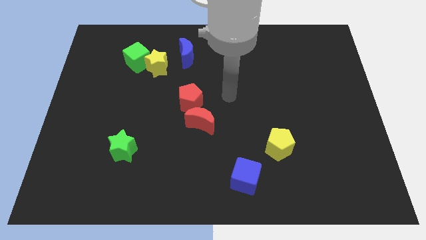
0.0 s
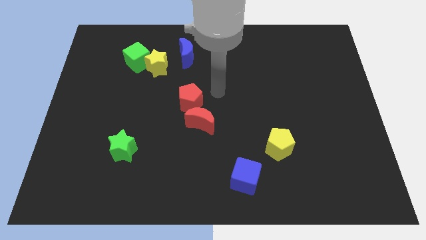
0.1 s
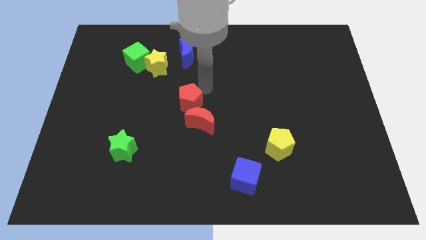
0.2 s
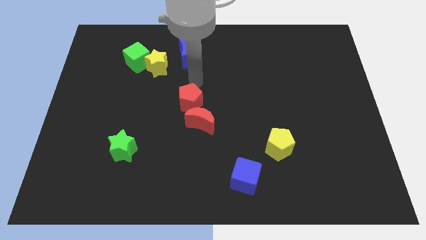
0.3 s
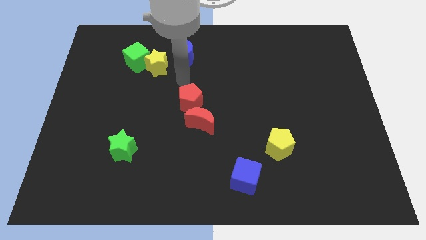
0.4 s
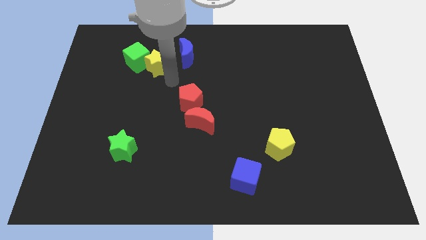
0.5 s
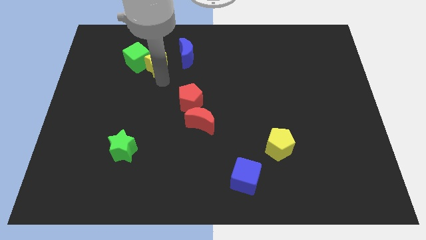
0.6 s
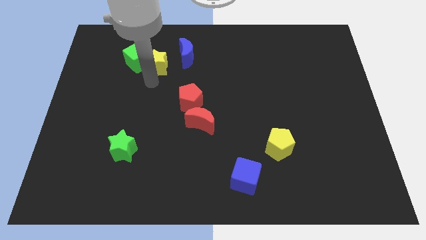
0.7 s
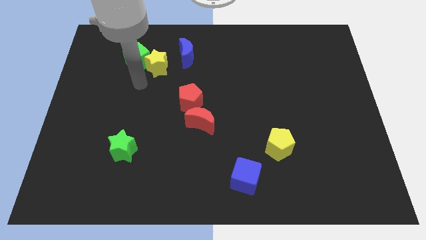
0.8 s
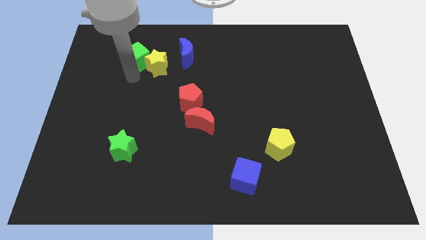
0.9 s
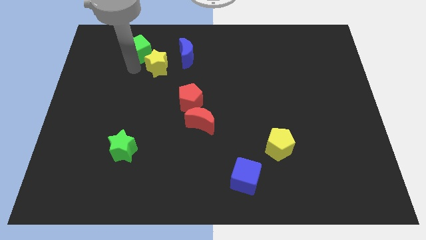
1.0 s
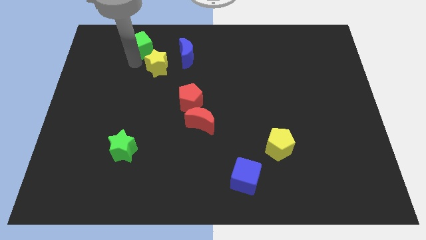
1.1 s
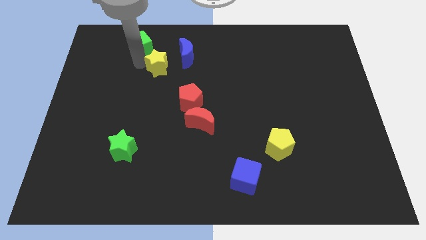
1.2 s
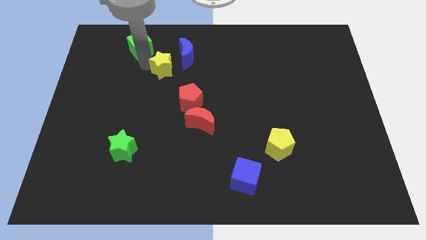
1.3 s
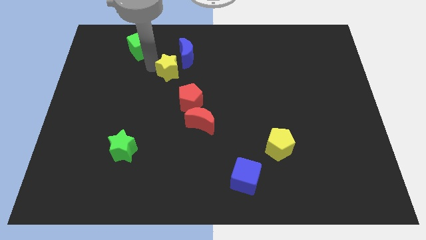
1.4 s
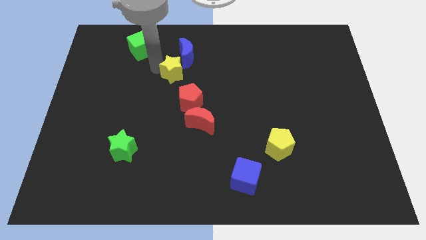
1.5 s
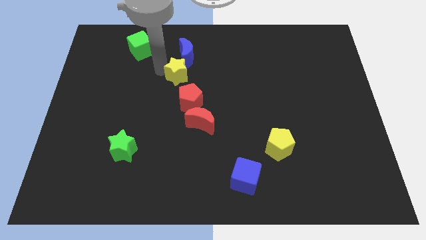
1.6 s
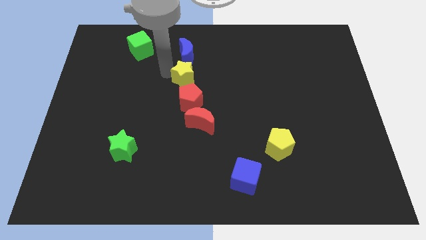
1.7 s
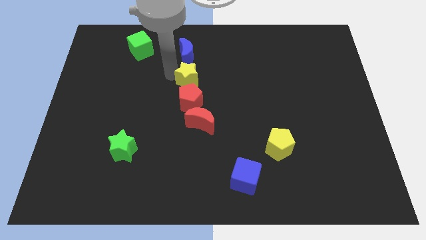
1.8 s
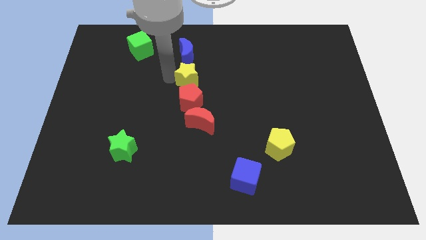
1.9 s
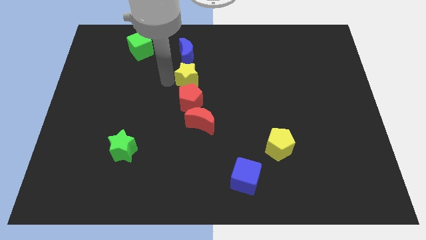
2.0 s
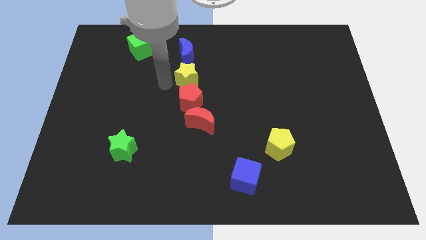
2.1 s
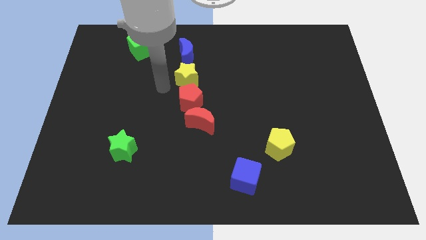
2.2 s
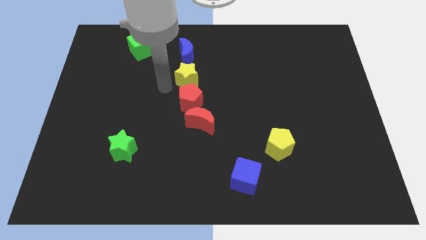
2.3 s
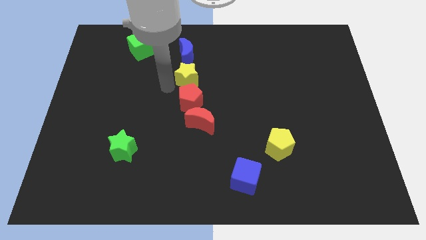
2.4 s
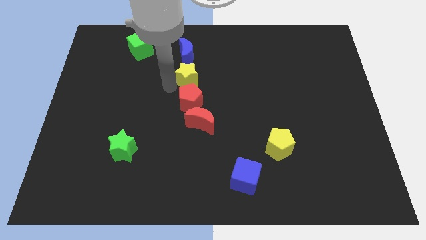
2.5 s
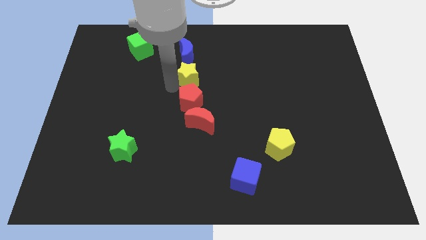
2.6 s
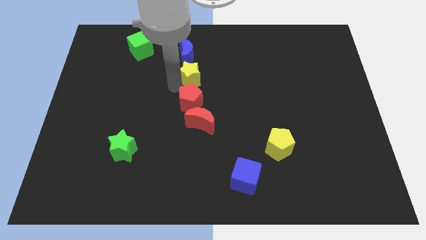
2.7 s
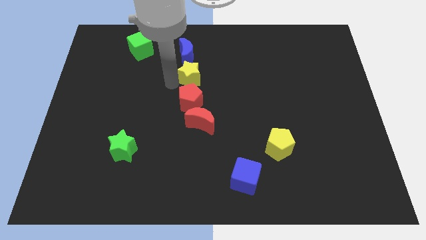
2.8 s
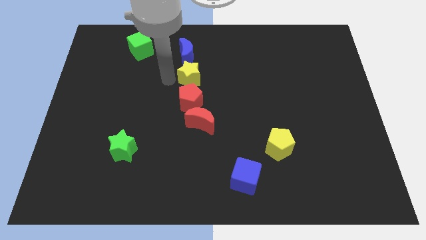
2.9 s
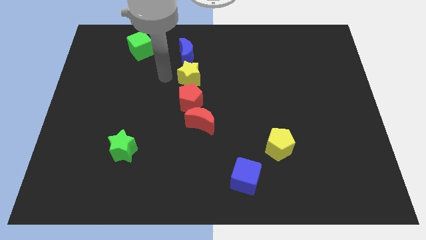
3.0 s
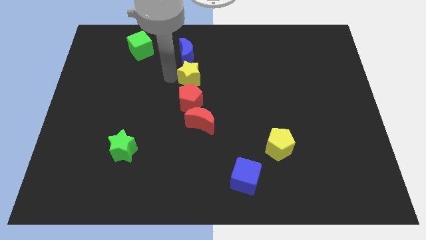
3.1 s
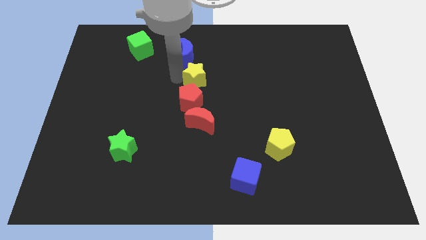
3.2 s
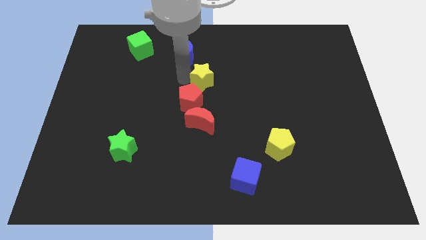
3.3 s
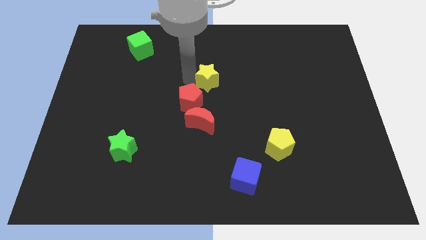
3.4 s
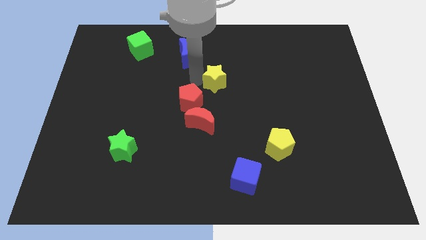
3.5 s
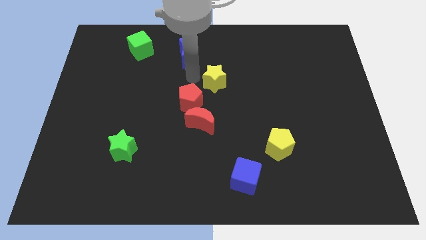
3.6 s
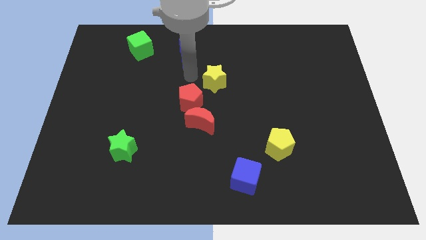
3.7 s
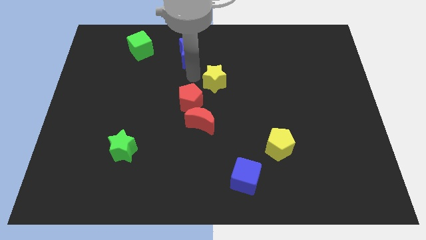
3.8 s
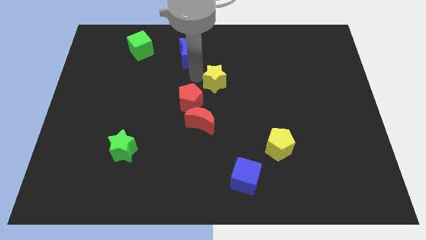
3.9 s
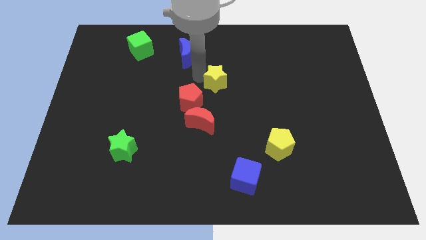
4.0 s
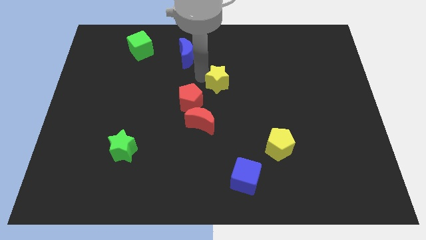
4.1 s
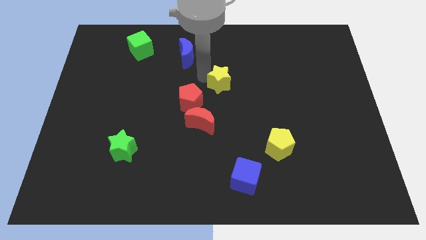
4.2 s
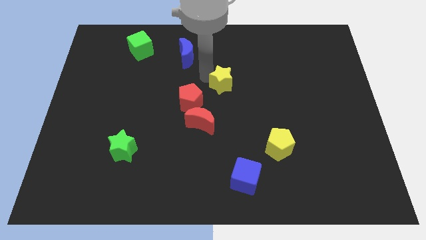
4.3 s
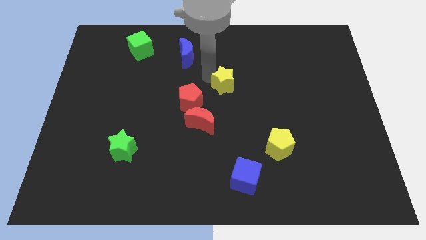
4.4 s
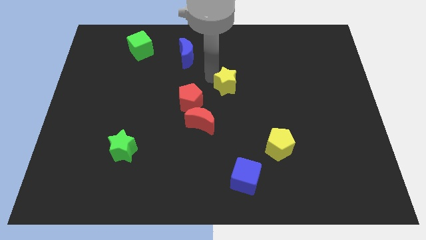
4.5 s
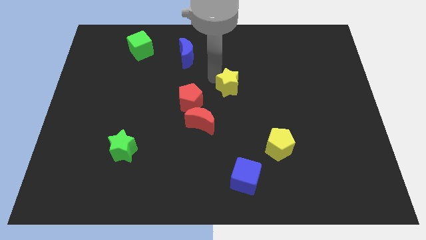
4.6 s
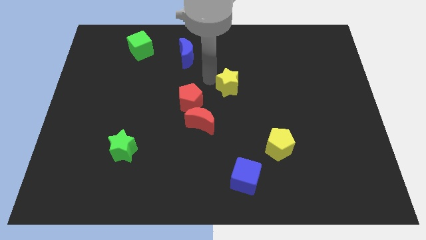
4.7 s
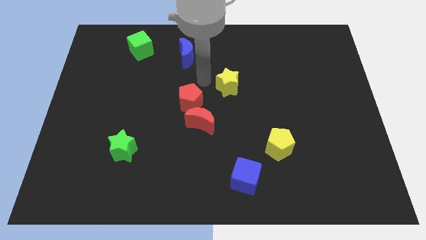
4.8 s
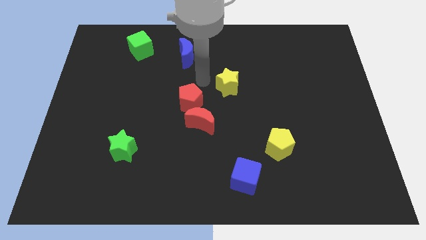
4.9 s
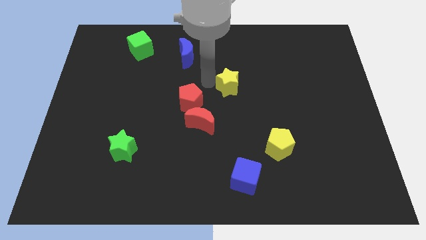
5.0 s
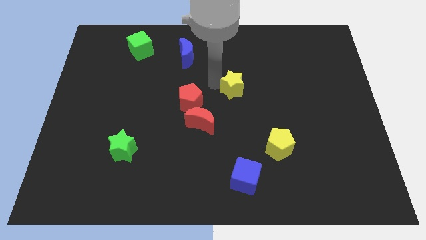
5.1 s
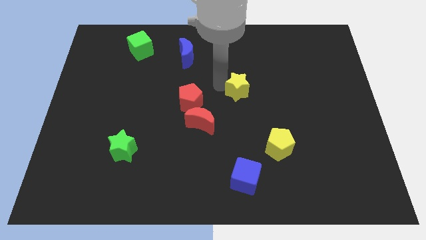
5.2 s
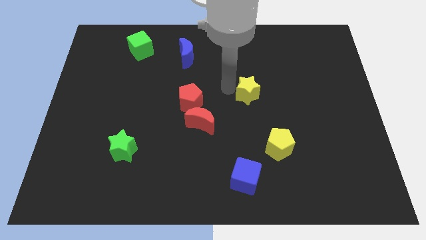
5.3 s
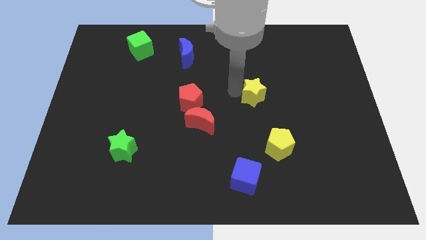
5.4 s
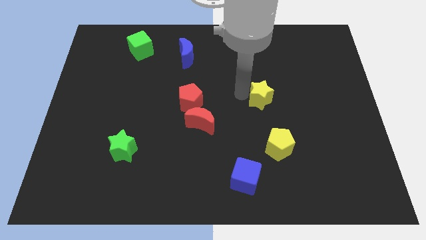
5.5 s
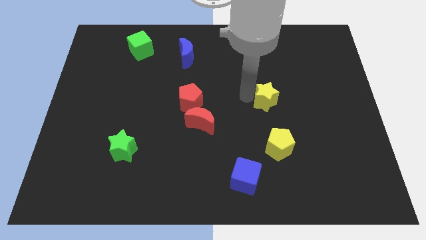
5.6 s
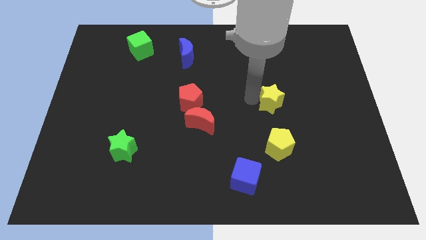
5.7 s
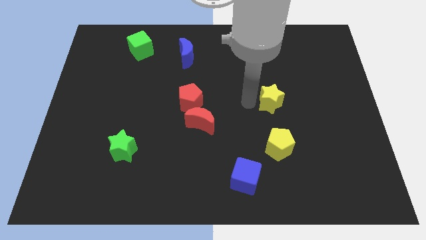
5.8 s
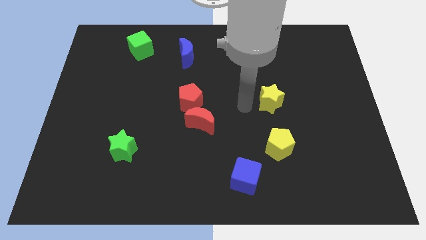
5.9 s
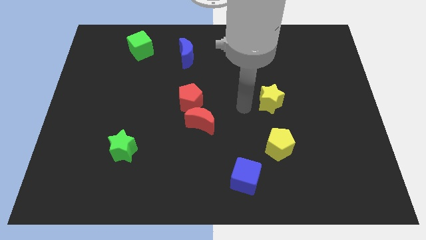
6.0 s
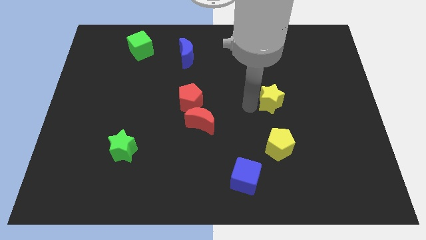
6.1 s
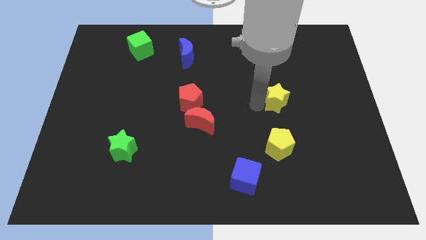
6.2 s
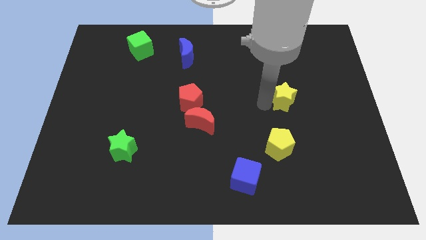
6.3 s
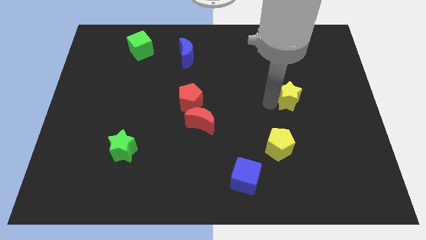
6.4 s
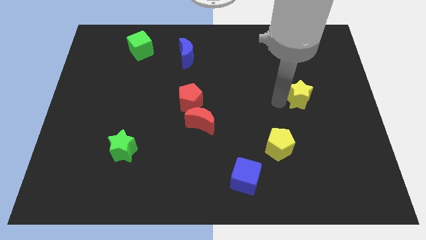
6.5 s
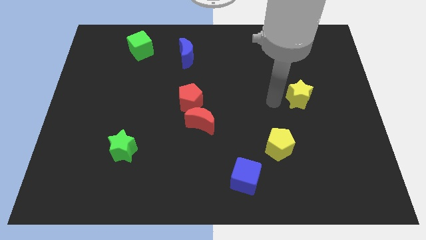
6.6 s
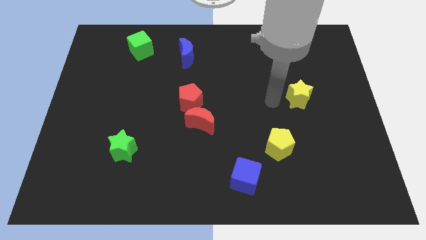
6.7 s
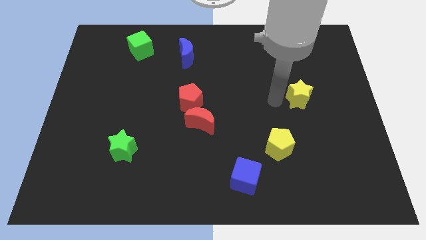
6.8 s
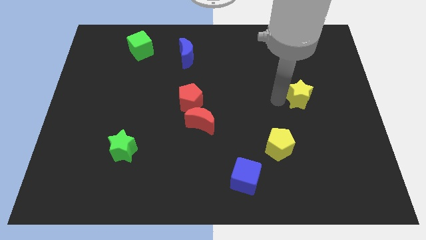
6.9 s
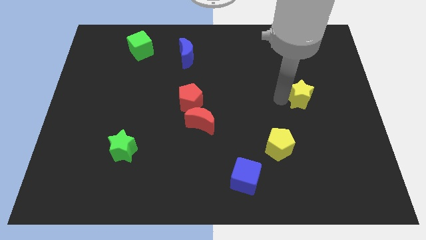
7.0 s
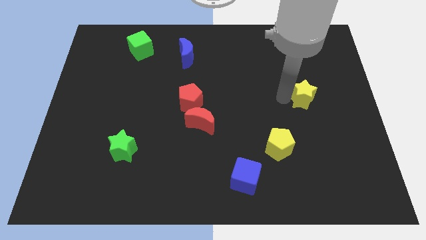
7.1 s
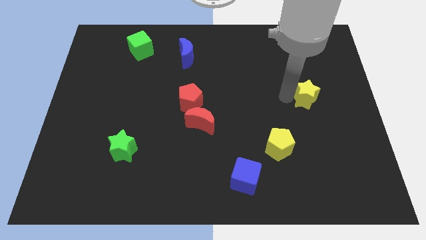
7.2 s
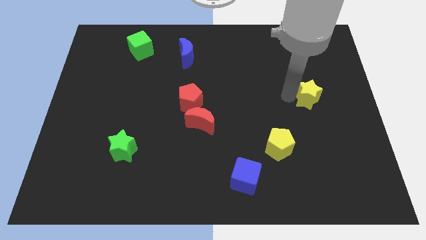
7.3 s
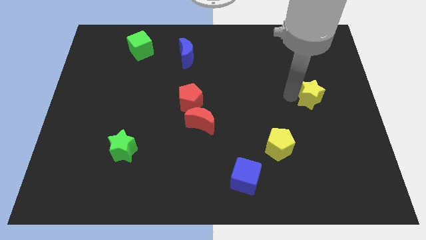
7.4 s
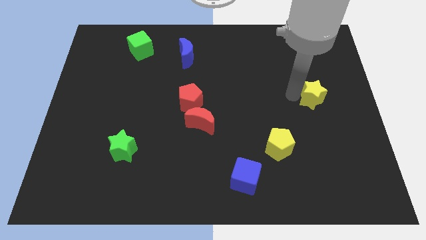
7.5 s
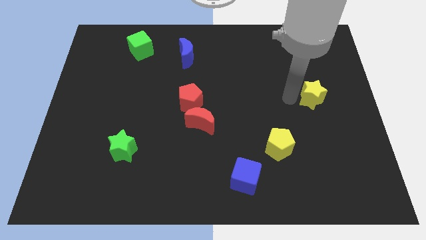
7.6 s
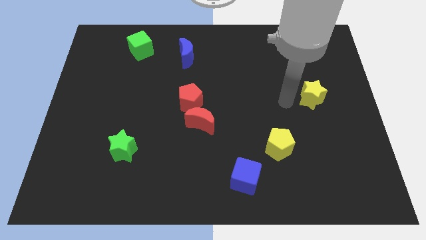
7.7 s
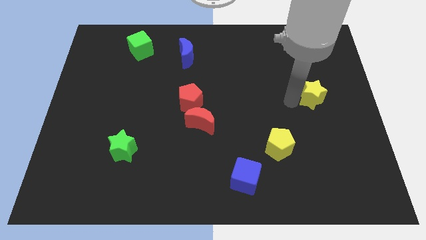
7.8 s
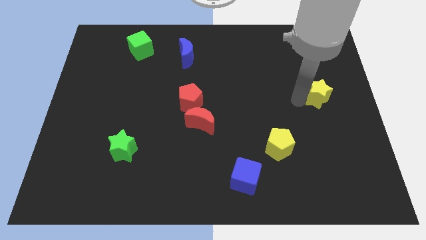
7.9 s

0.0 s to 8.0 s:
move the yellow star to the center right
